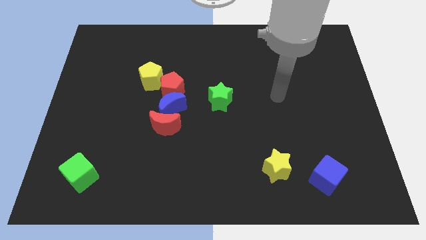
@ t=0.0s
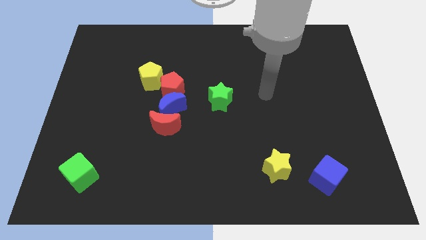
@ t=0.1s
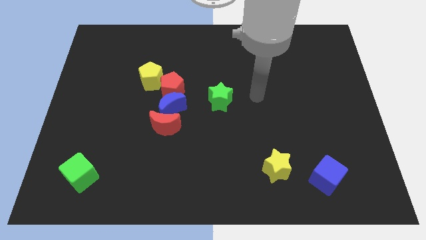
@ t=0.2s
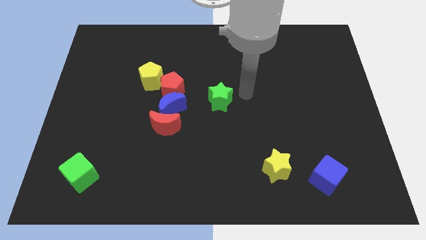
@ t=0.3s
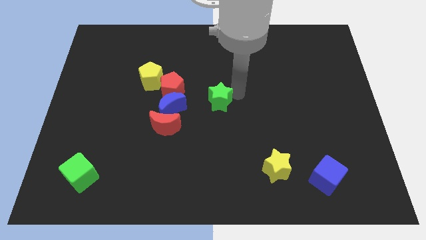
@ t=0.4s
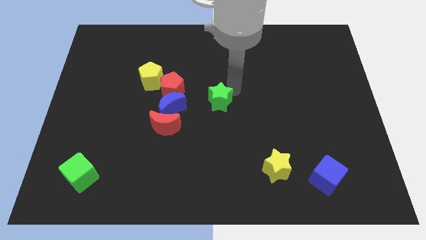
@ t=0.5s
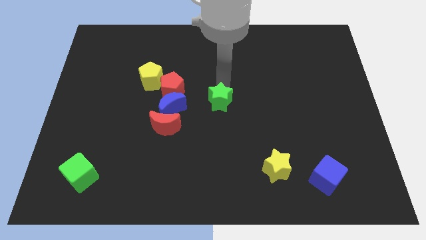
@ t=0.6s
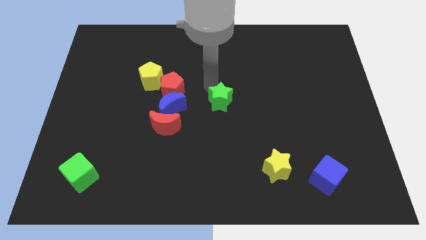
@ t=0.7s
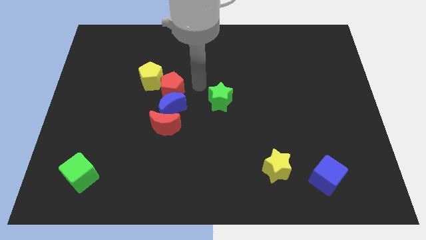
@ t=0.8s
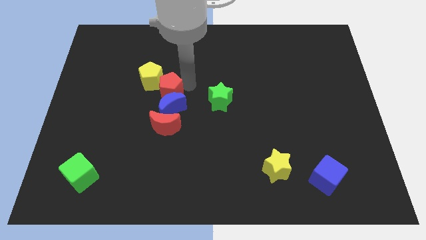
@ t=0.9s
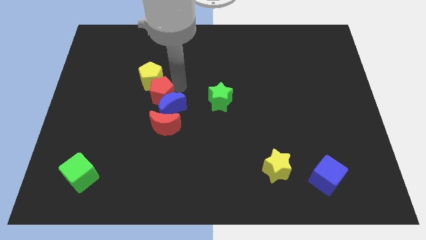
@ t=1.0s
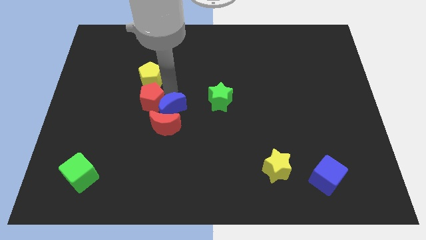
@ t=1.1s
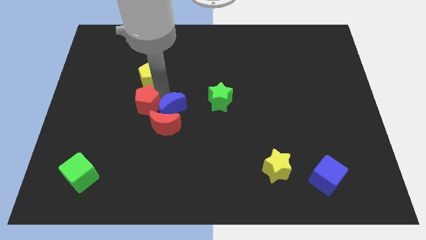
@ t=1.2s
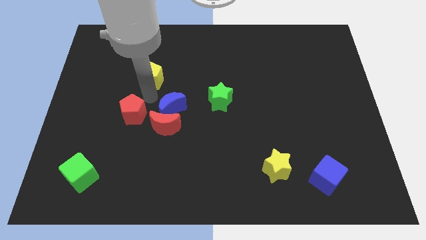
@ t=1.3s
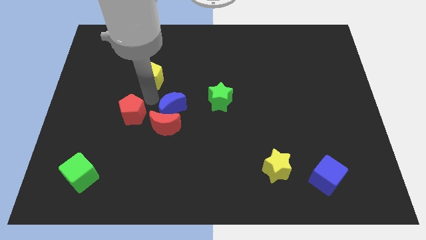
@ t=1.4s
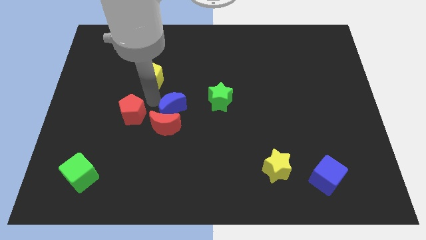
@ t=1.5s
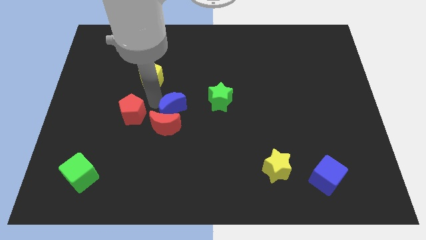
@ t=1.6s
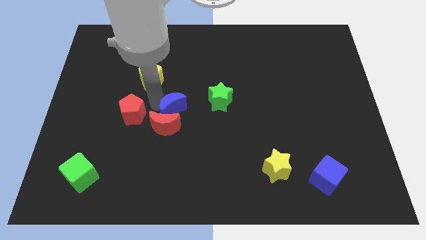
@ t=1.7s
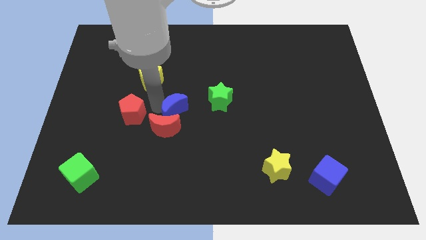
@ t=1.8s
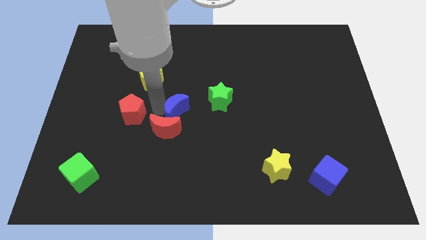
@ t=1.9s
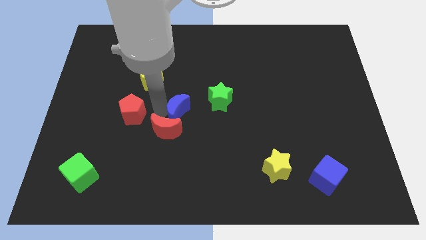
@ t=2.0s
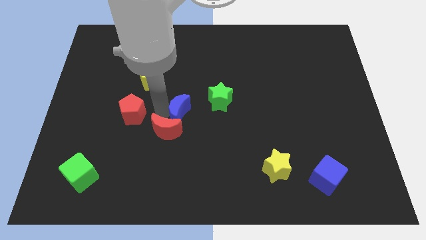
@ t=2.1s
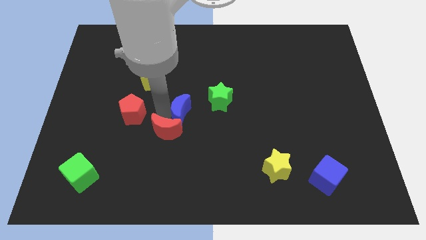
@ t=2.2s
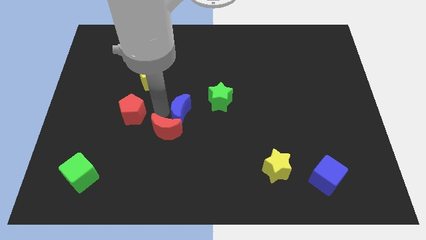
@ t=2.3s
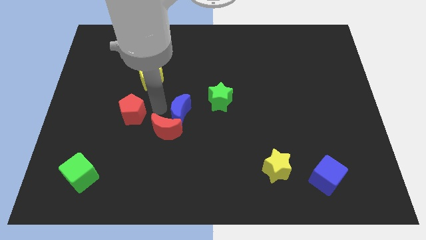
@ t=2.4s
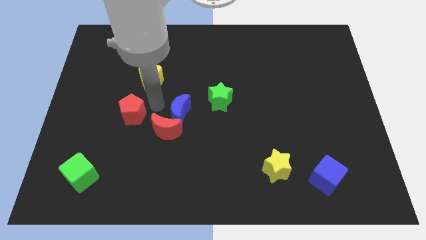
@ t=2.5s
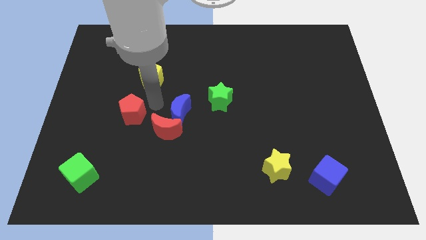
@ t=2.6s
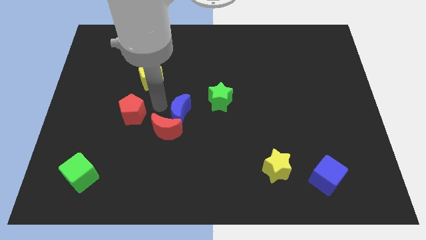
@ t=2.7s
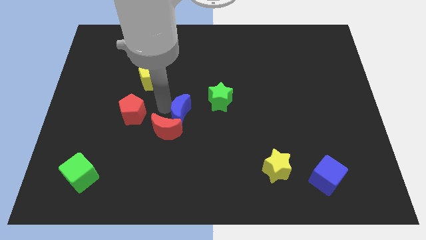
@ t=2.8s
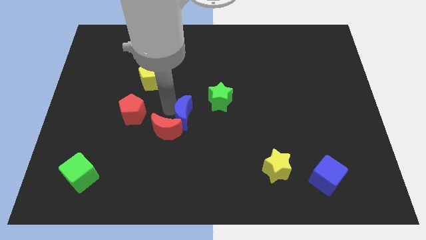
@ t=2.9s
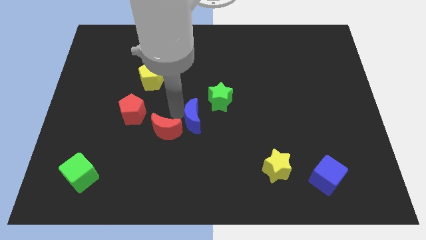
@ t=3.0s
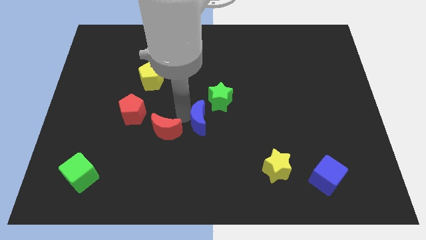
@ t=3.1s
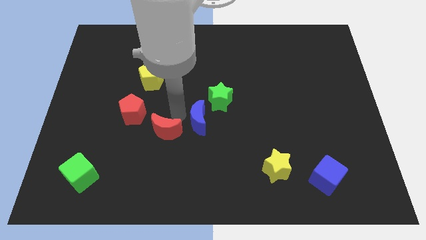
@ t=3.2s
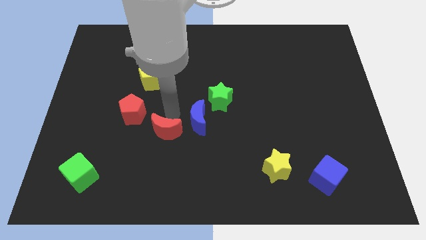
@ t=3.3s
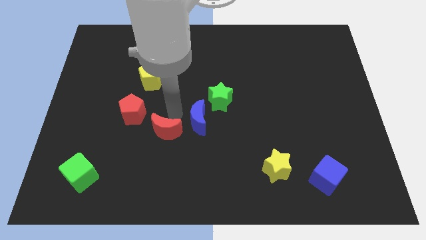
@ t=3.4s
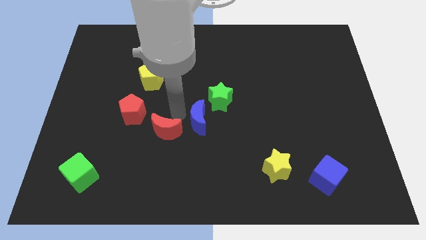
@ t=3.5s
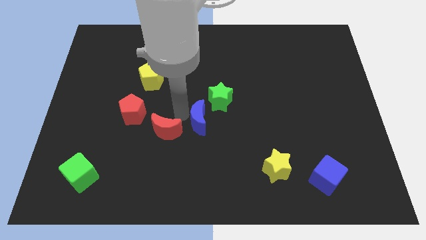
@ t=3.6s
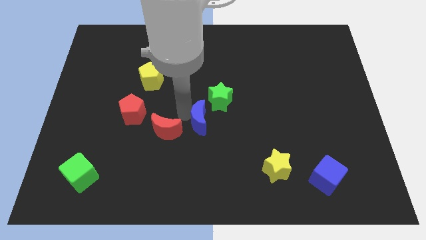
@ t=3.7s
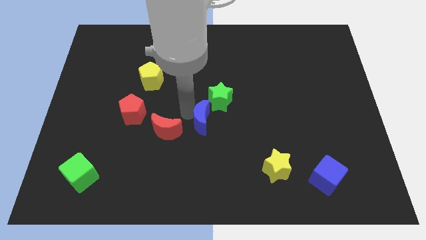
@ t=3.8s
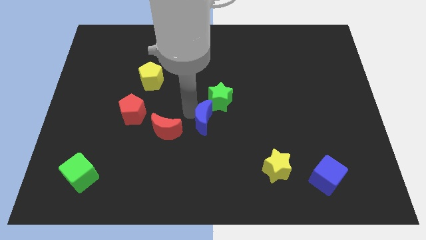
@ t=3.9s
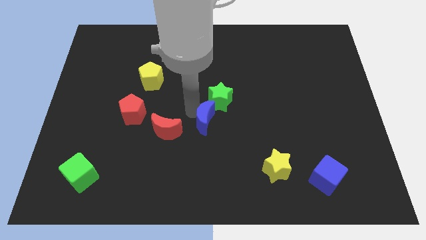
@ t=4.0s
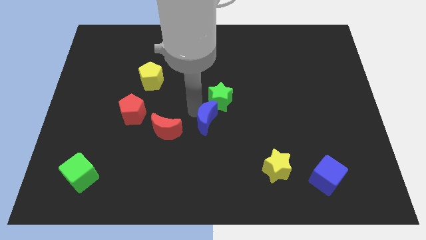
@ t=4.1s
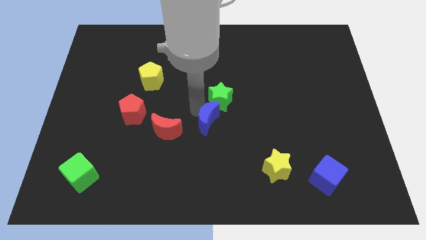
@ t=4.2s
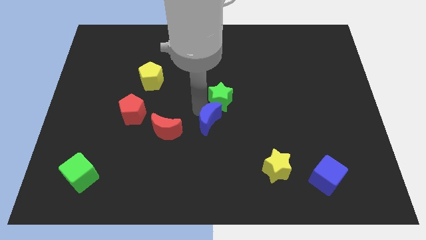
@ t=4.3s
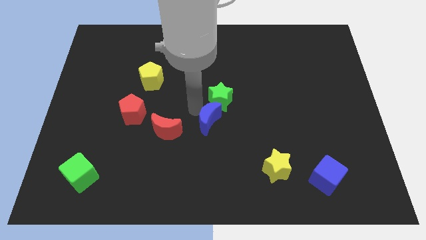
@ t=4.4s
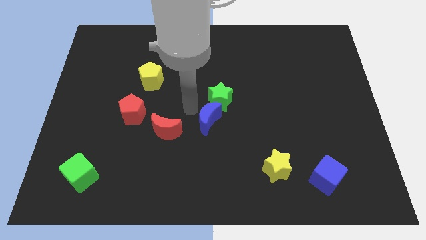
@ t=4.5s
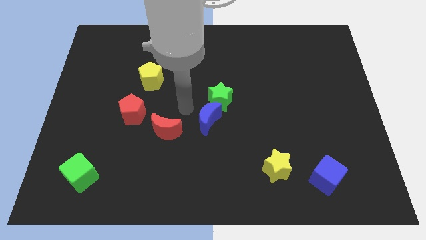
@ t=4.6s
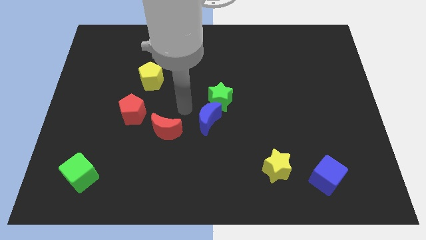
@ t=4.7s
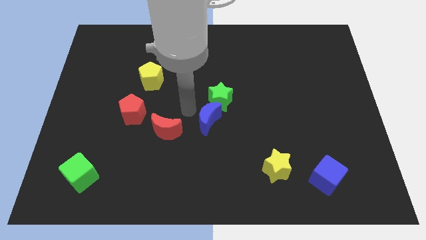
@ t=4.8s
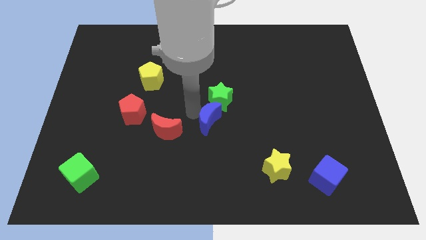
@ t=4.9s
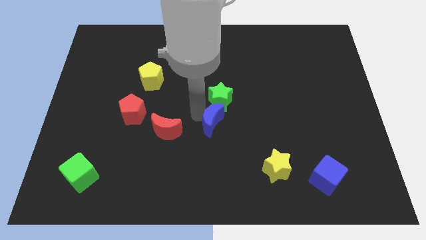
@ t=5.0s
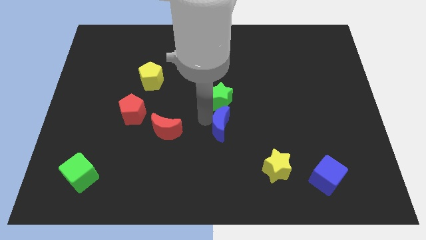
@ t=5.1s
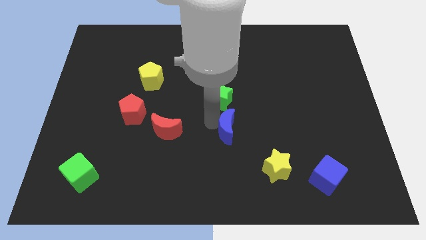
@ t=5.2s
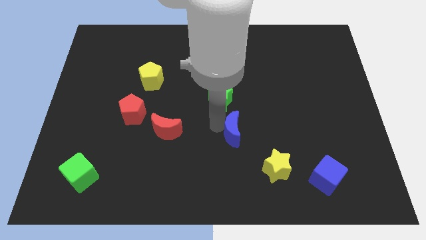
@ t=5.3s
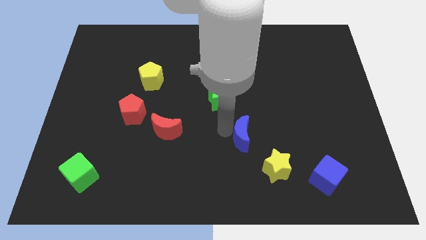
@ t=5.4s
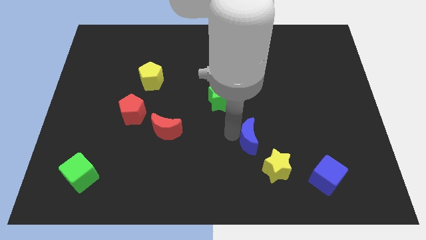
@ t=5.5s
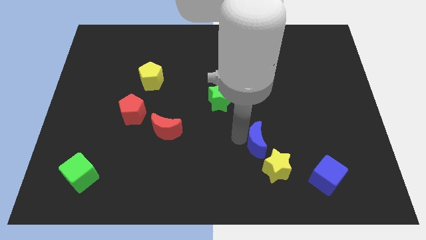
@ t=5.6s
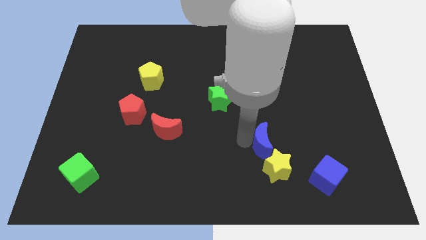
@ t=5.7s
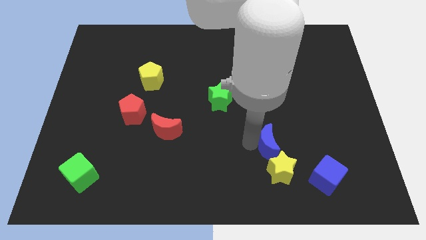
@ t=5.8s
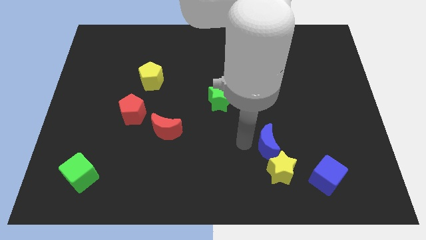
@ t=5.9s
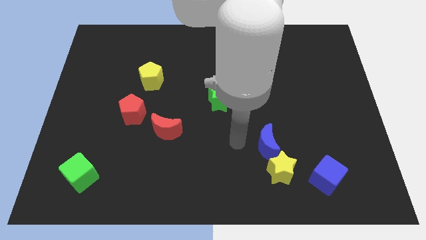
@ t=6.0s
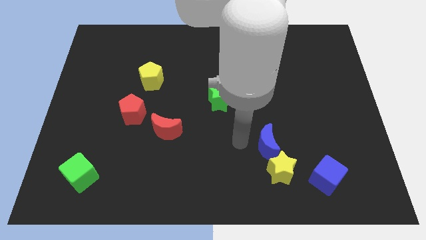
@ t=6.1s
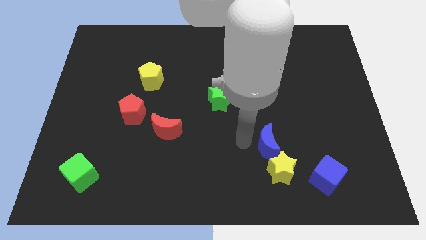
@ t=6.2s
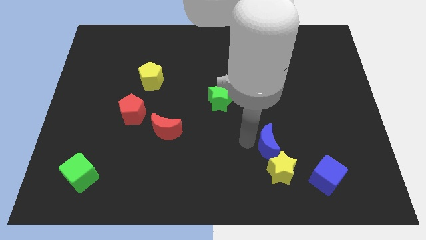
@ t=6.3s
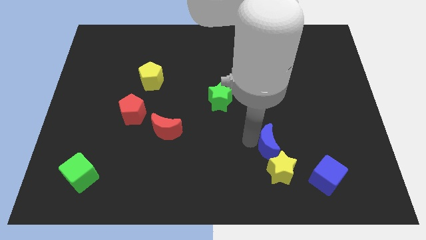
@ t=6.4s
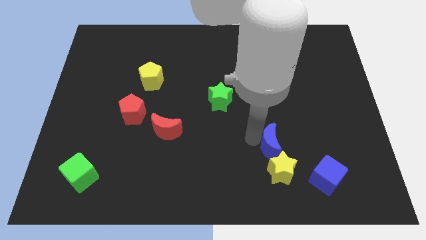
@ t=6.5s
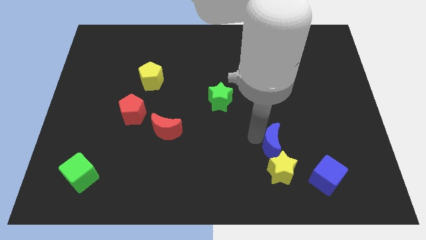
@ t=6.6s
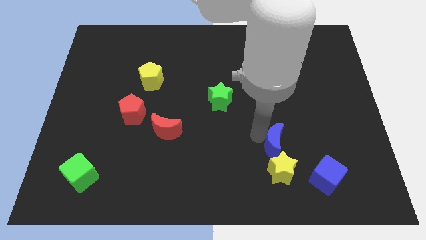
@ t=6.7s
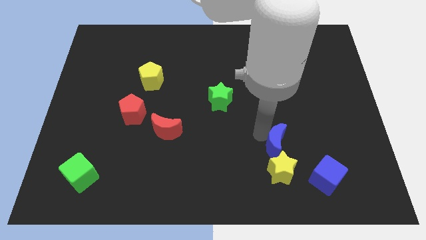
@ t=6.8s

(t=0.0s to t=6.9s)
push the blue moon to the top right of the yellow star

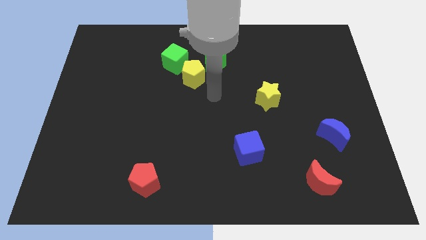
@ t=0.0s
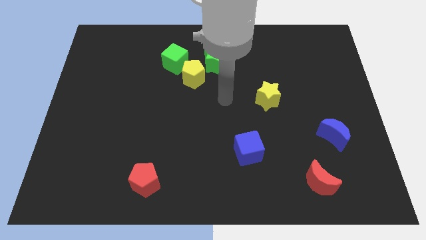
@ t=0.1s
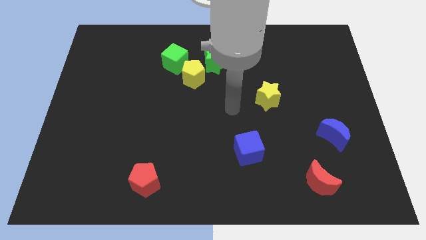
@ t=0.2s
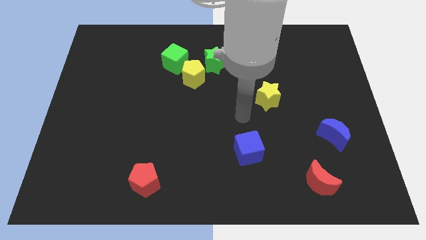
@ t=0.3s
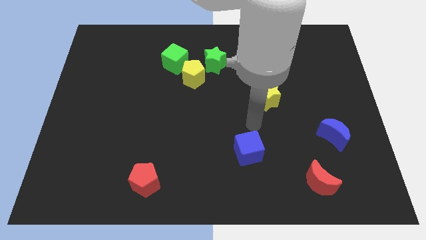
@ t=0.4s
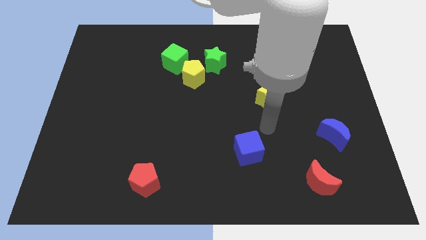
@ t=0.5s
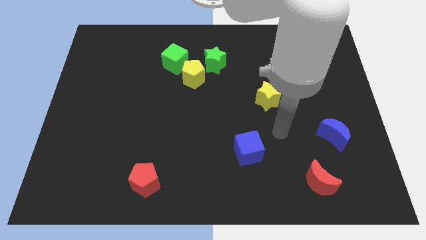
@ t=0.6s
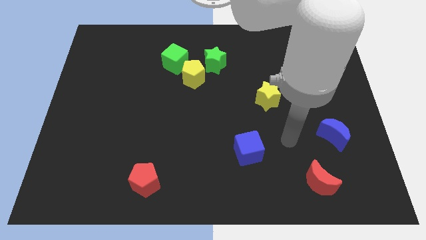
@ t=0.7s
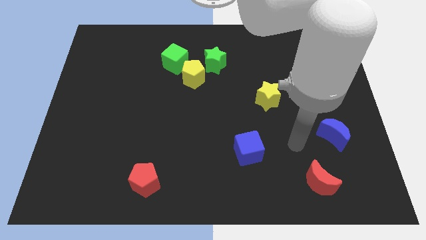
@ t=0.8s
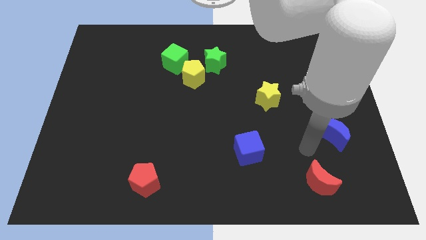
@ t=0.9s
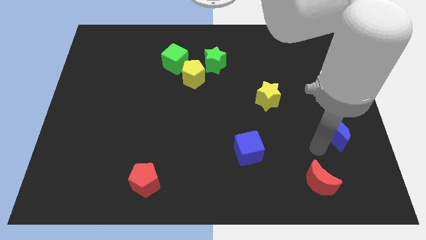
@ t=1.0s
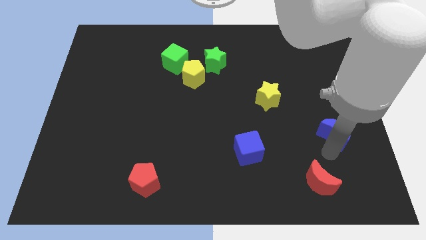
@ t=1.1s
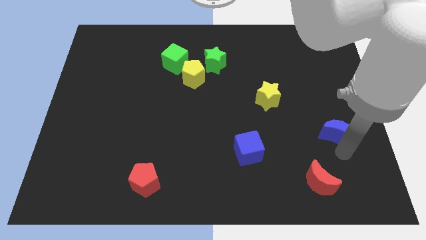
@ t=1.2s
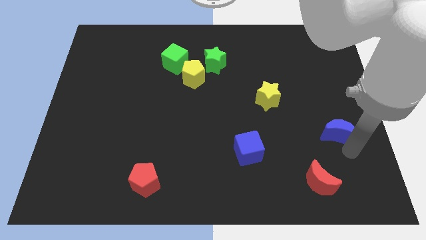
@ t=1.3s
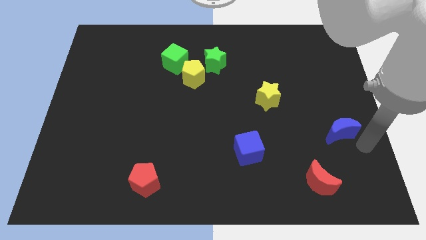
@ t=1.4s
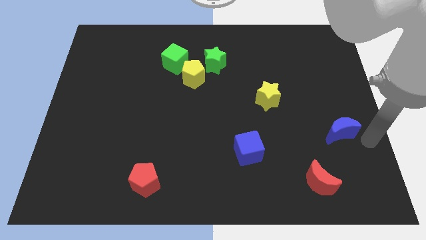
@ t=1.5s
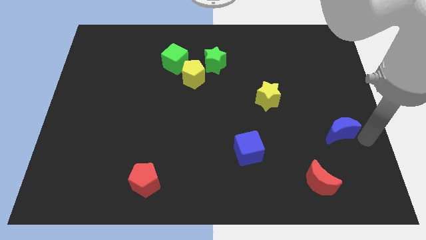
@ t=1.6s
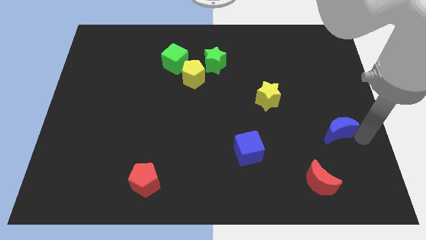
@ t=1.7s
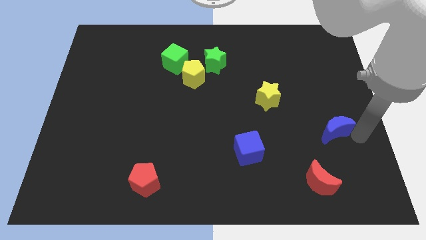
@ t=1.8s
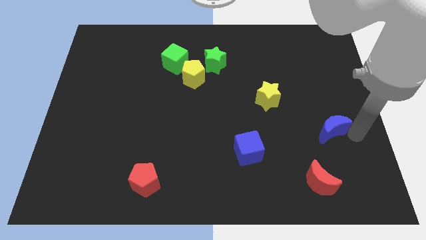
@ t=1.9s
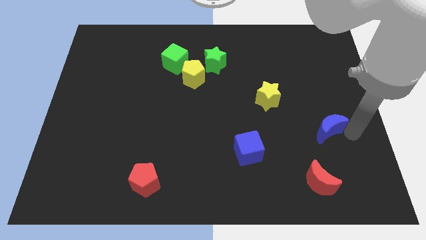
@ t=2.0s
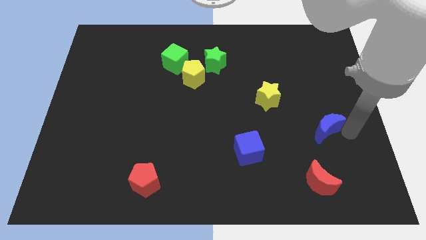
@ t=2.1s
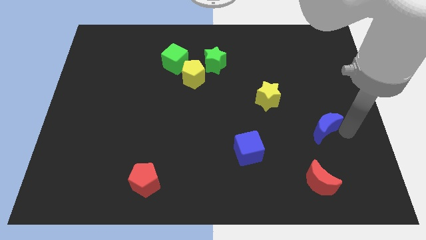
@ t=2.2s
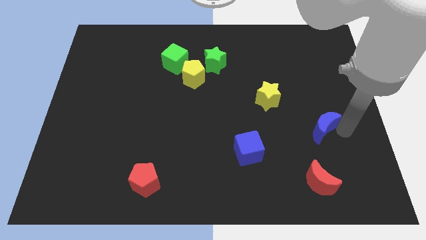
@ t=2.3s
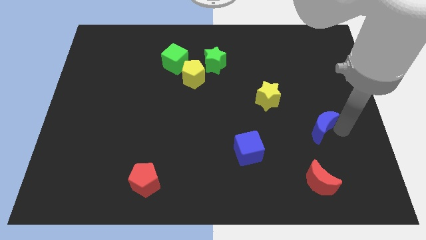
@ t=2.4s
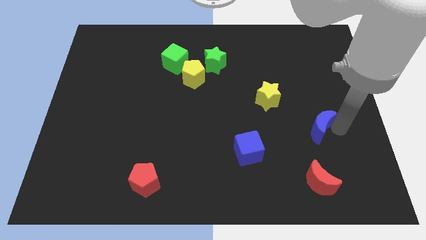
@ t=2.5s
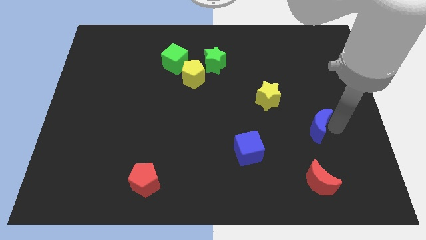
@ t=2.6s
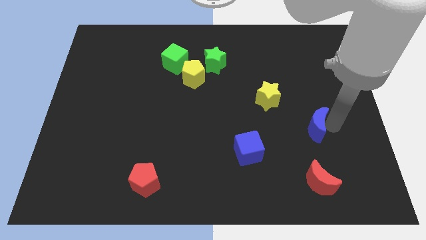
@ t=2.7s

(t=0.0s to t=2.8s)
put the blue moon diagonally down and to the right of the yellow star
